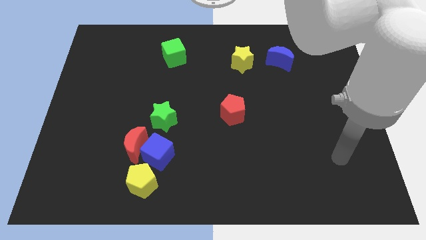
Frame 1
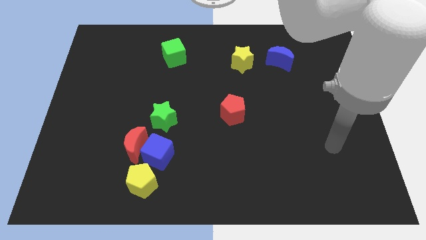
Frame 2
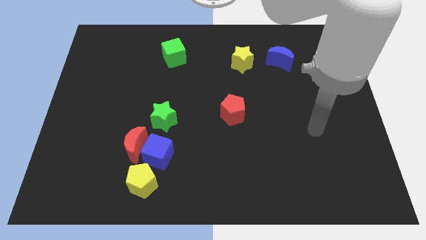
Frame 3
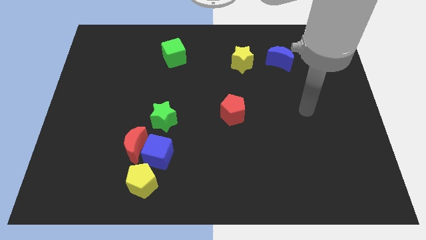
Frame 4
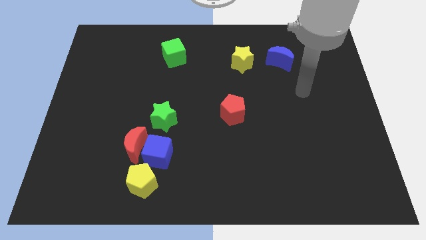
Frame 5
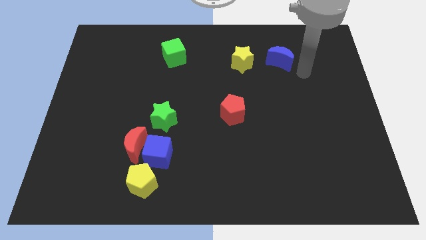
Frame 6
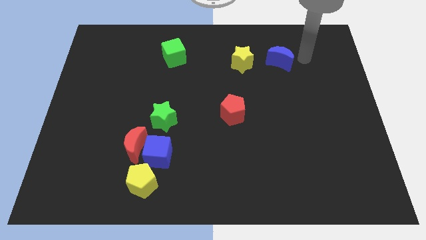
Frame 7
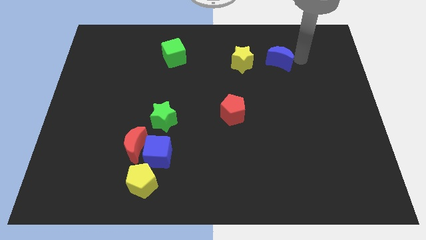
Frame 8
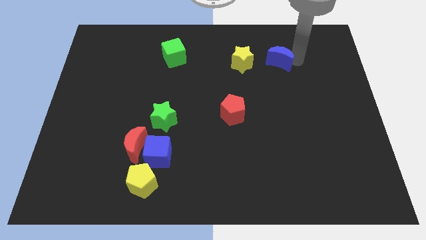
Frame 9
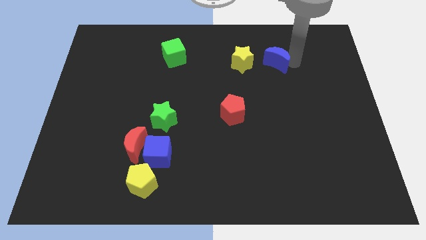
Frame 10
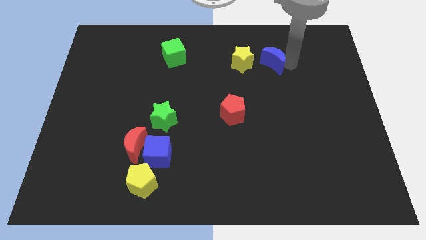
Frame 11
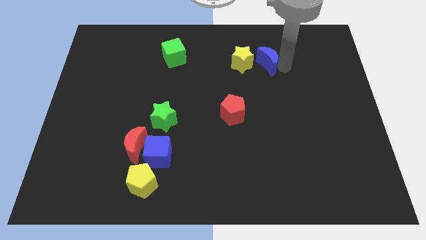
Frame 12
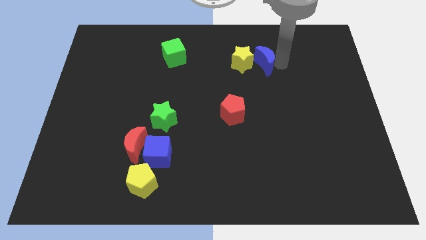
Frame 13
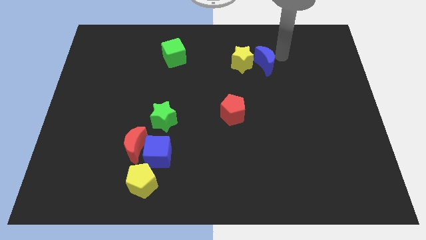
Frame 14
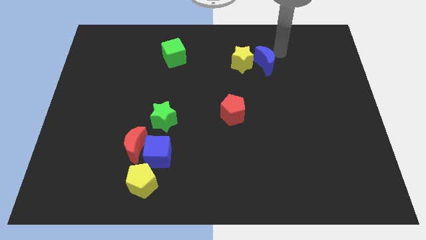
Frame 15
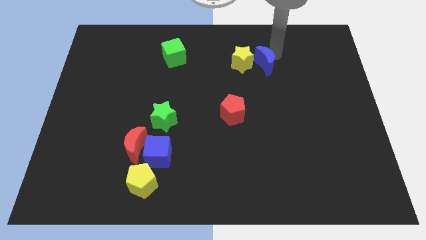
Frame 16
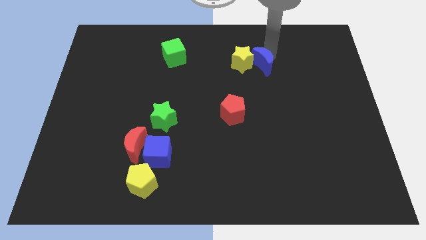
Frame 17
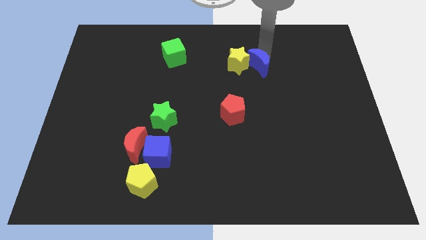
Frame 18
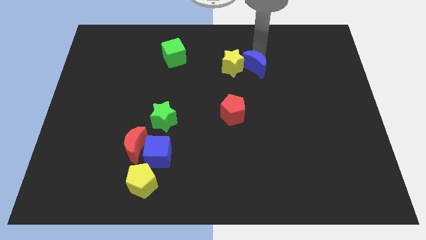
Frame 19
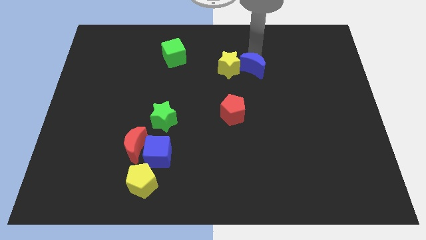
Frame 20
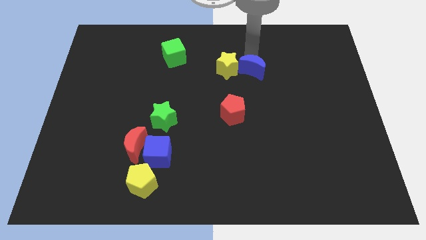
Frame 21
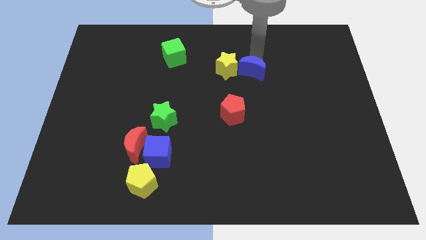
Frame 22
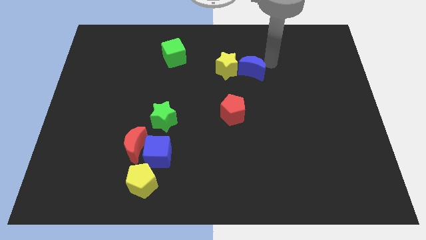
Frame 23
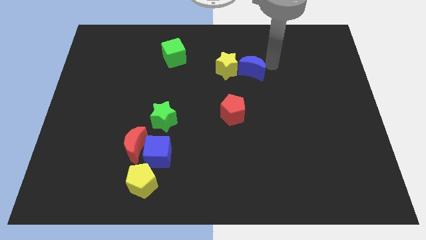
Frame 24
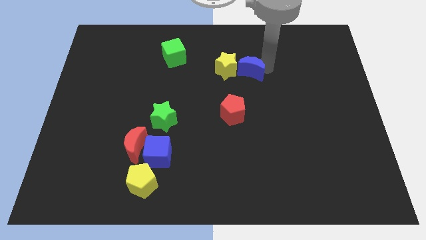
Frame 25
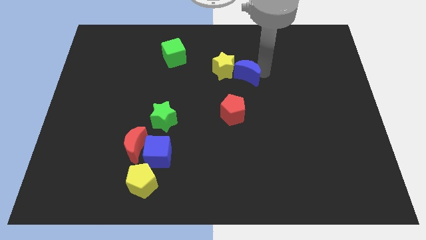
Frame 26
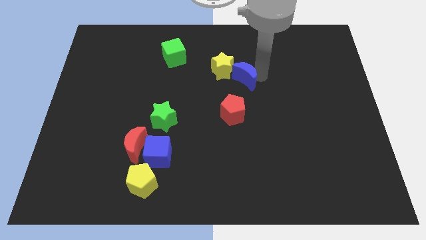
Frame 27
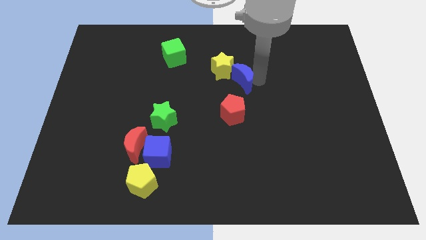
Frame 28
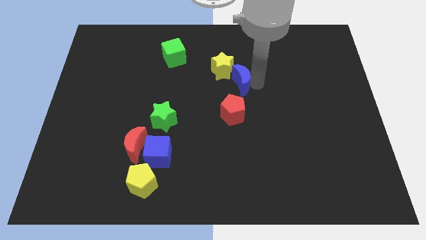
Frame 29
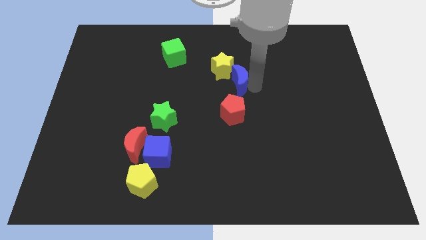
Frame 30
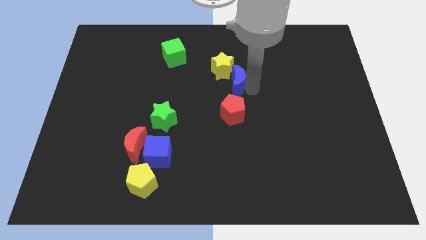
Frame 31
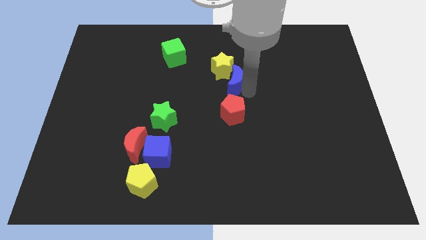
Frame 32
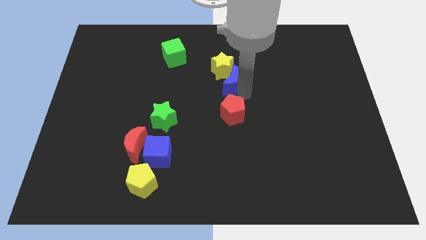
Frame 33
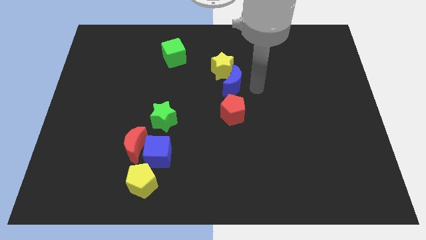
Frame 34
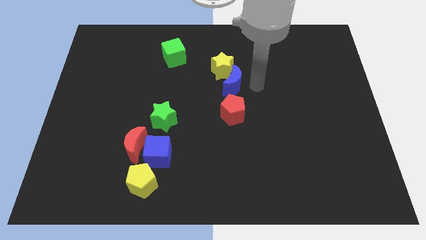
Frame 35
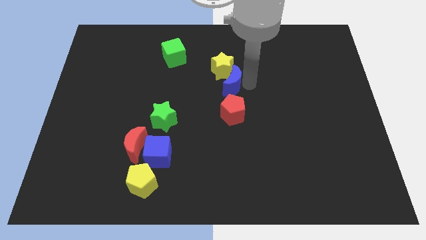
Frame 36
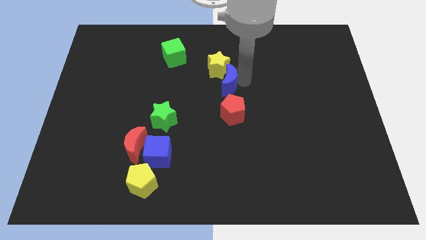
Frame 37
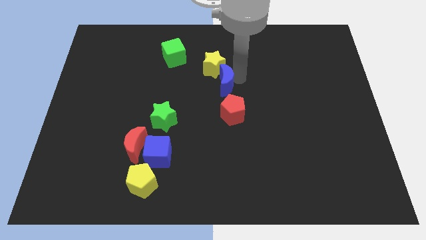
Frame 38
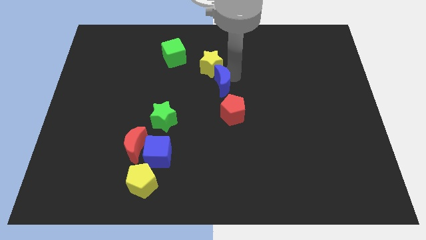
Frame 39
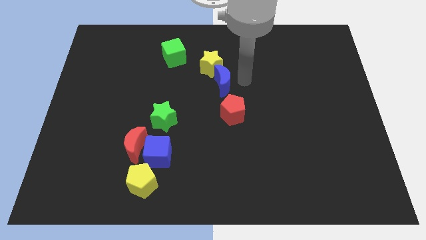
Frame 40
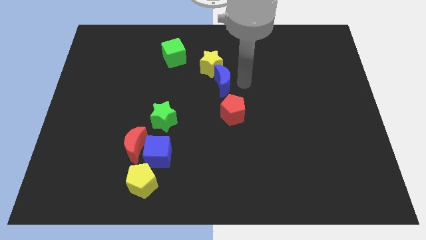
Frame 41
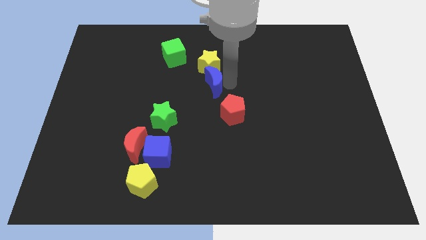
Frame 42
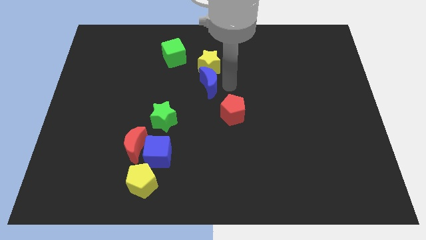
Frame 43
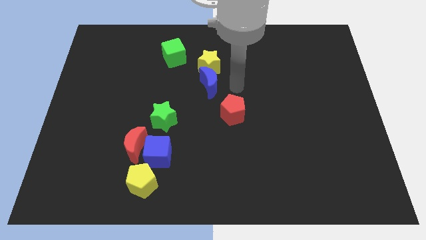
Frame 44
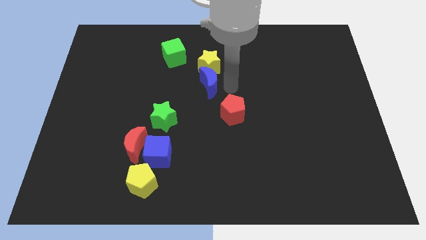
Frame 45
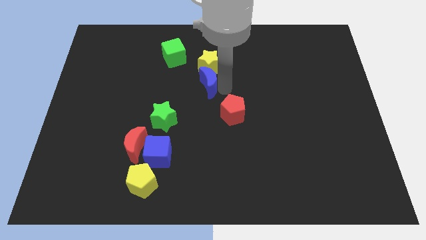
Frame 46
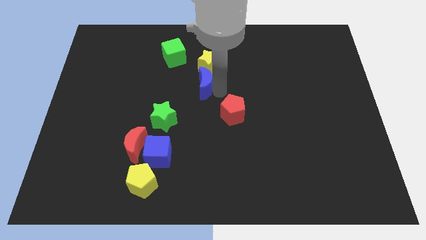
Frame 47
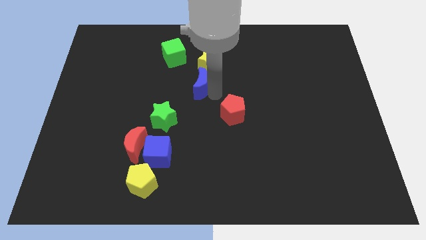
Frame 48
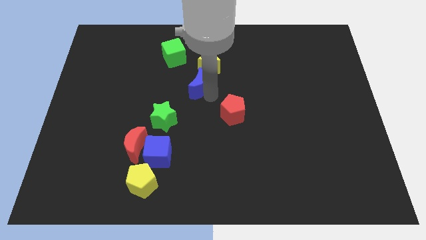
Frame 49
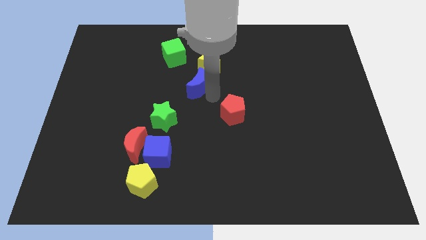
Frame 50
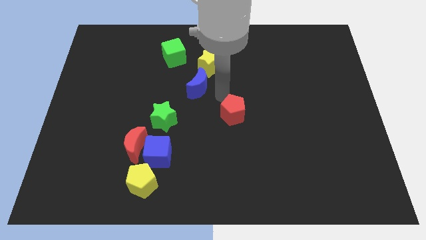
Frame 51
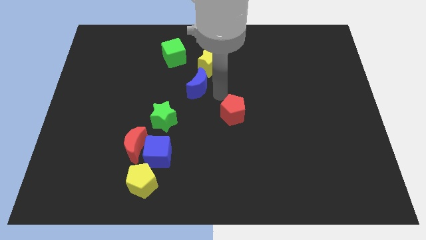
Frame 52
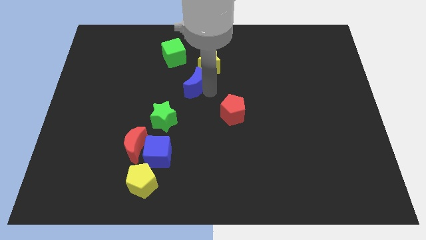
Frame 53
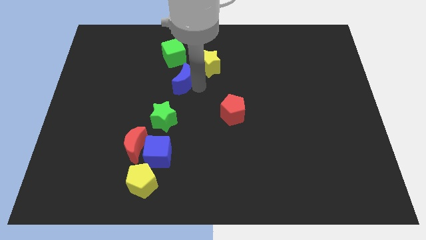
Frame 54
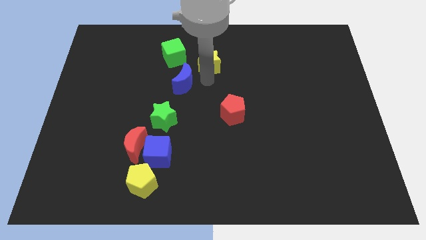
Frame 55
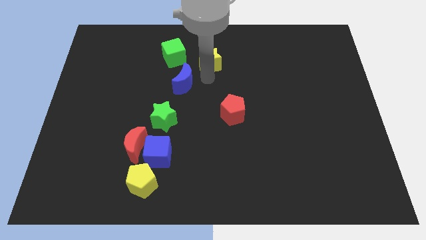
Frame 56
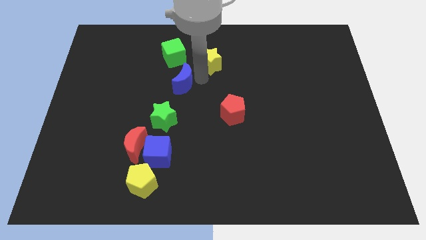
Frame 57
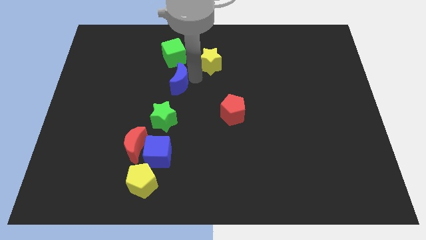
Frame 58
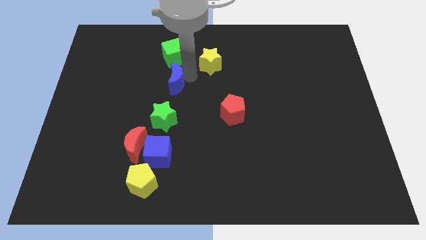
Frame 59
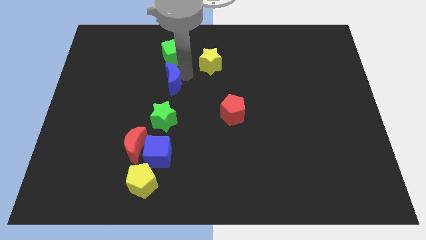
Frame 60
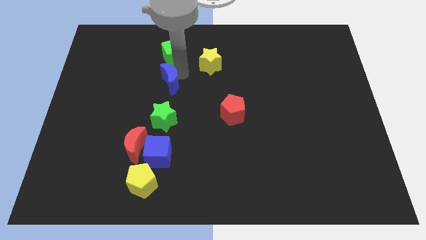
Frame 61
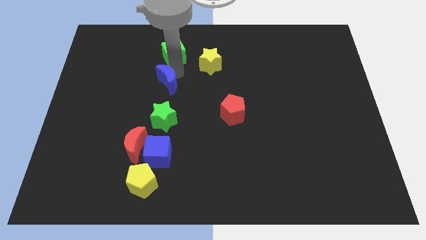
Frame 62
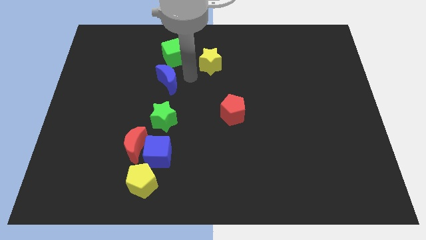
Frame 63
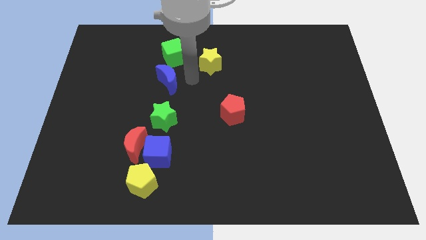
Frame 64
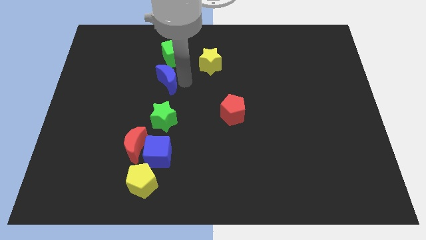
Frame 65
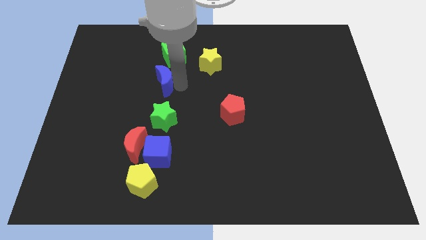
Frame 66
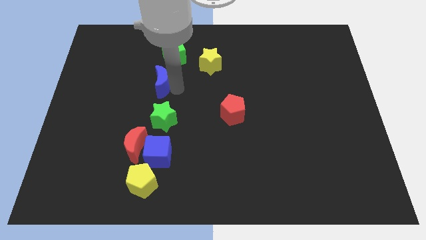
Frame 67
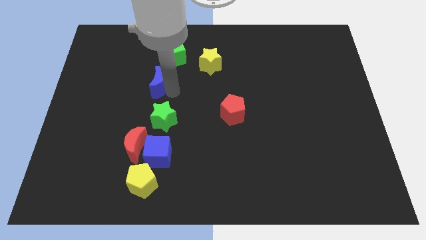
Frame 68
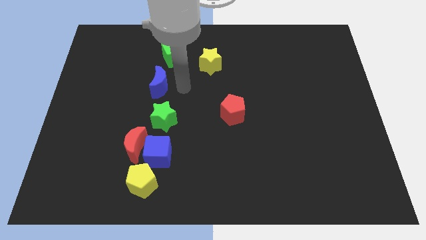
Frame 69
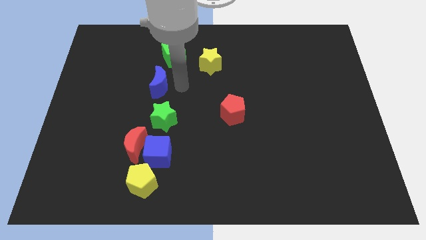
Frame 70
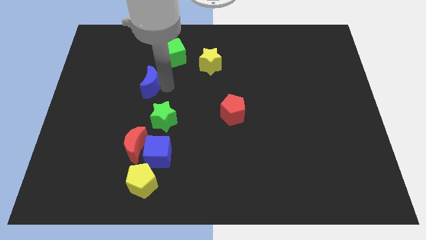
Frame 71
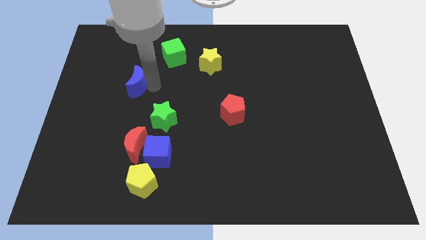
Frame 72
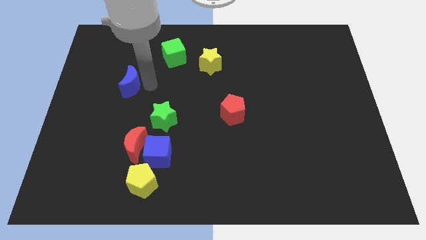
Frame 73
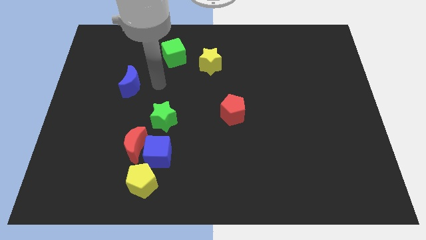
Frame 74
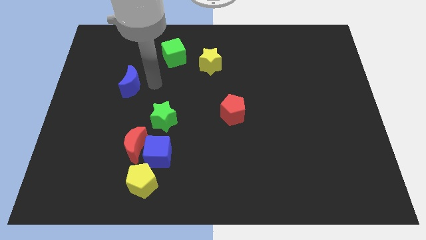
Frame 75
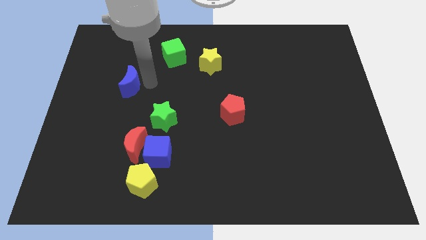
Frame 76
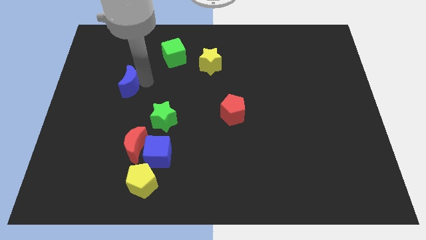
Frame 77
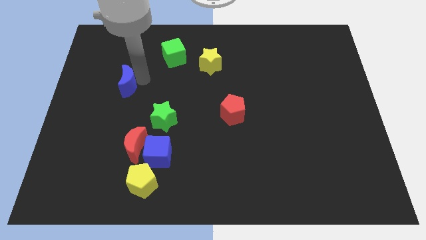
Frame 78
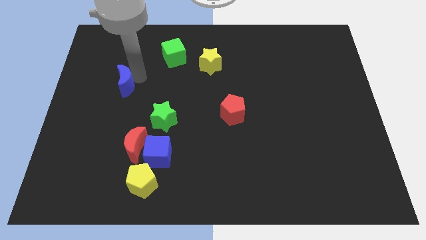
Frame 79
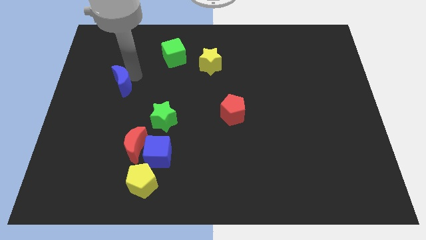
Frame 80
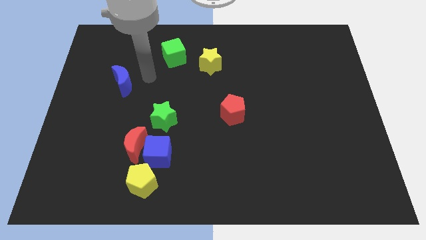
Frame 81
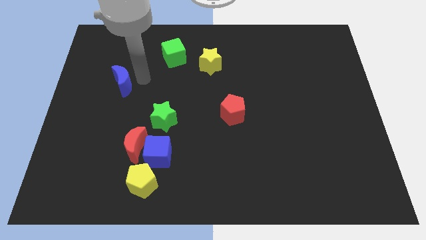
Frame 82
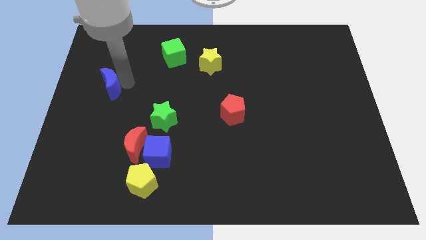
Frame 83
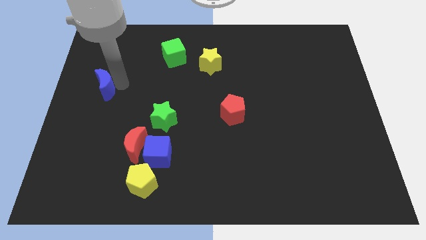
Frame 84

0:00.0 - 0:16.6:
push the blue moon to the left side
